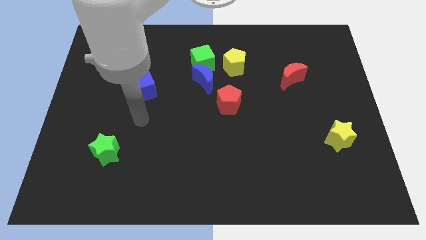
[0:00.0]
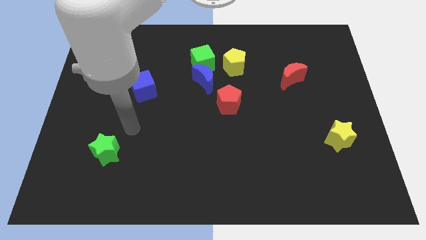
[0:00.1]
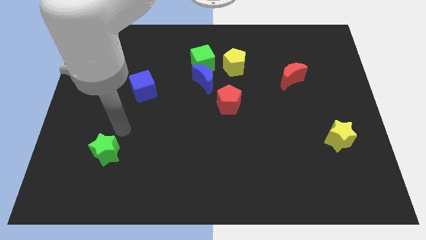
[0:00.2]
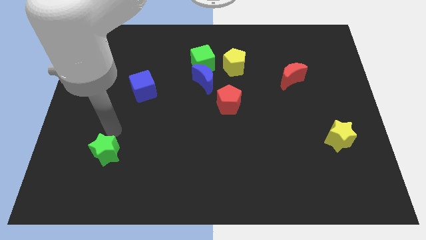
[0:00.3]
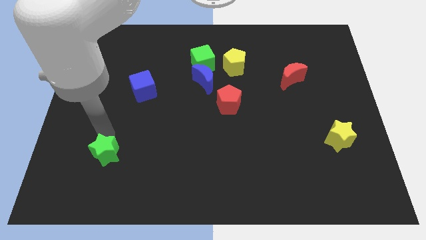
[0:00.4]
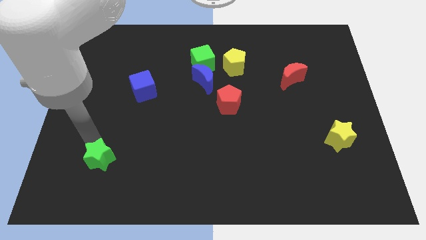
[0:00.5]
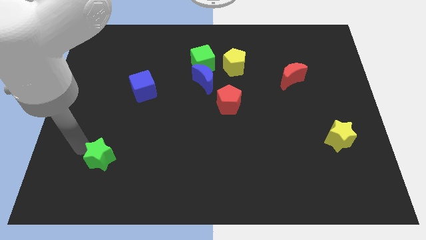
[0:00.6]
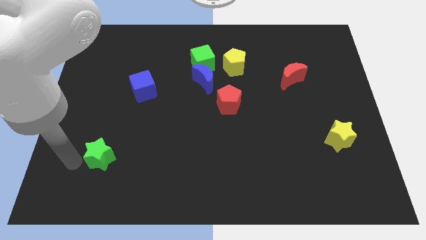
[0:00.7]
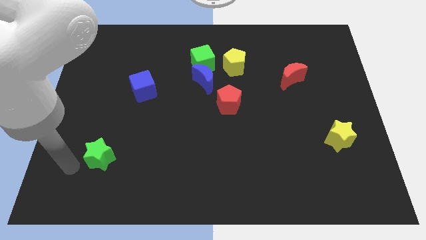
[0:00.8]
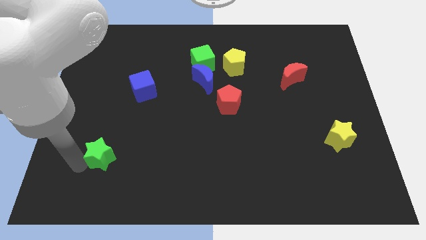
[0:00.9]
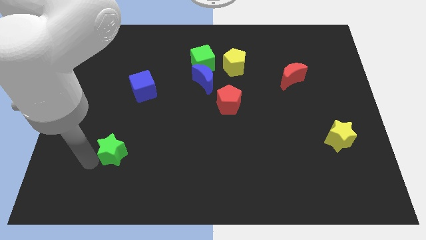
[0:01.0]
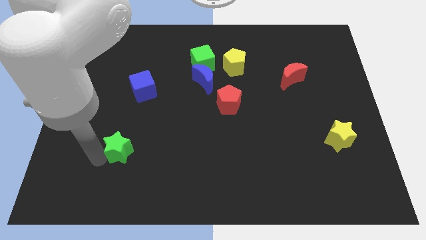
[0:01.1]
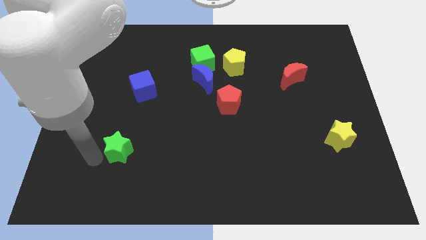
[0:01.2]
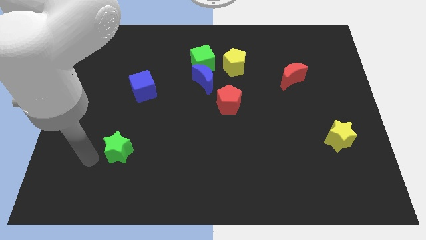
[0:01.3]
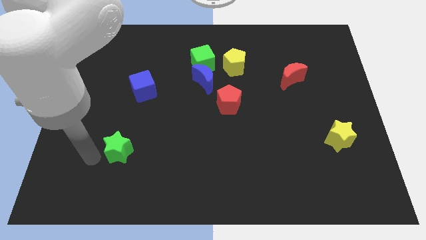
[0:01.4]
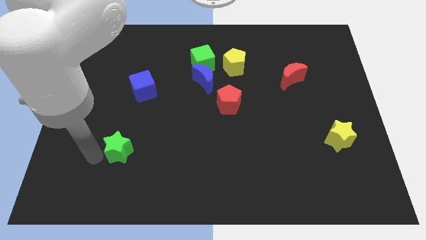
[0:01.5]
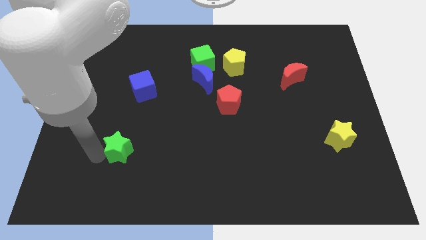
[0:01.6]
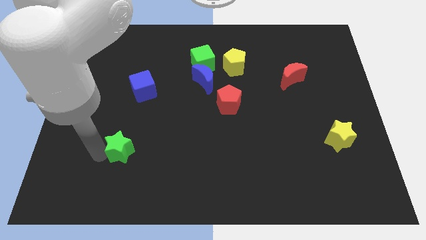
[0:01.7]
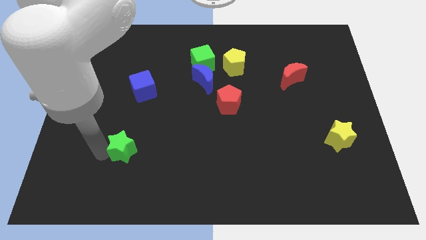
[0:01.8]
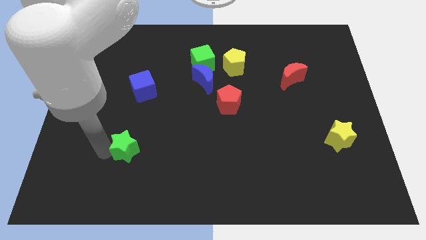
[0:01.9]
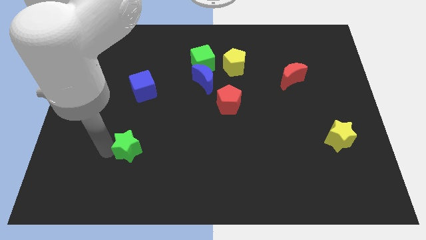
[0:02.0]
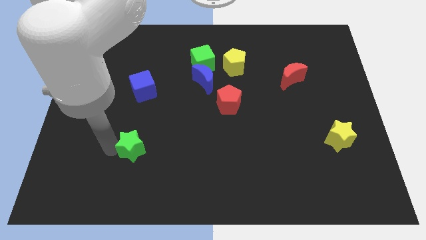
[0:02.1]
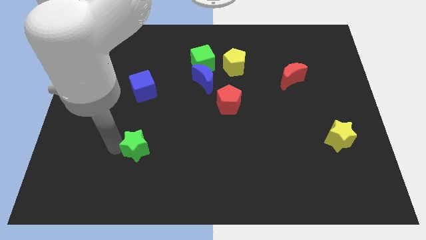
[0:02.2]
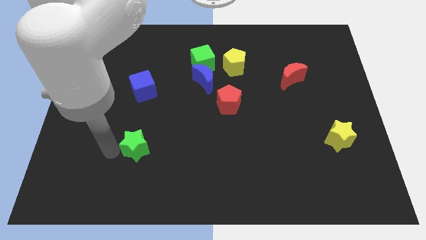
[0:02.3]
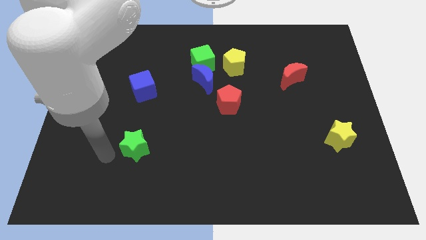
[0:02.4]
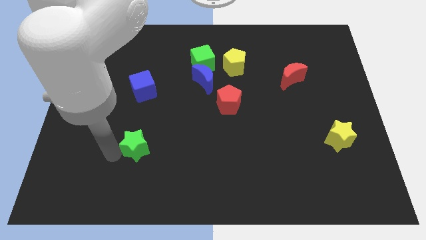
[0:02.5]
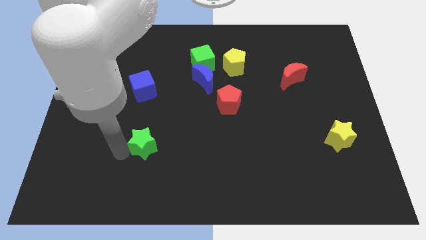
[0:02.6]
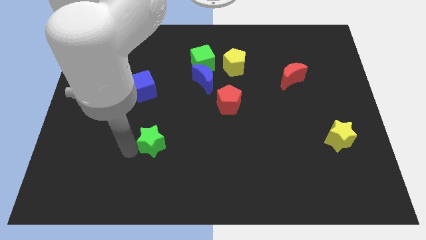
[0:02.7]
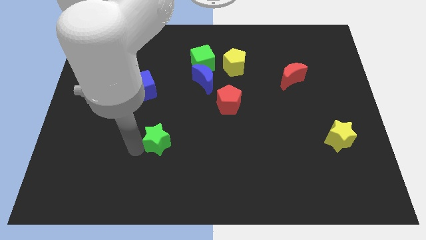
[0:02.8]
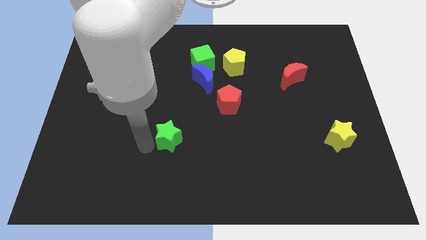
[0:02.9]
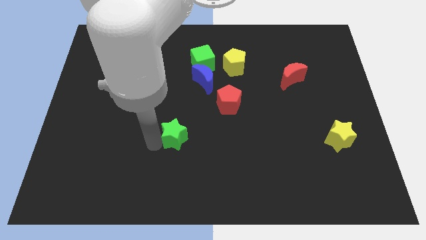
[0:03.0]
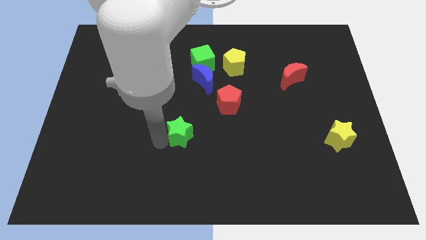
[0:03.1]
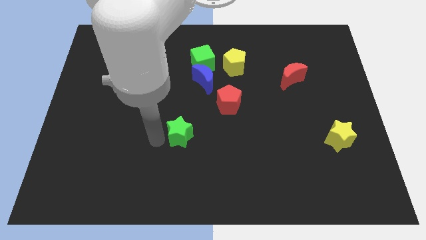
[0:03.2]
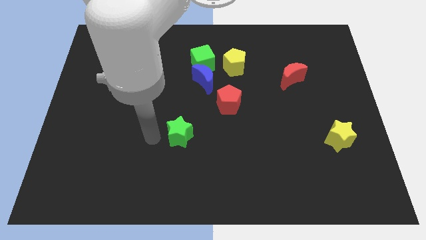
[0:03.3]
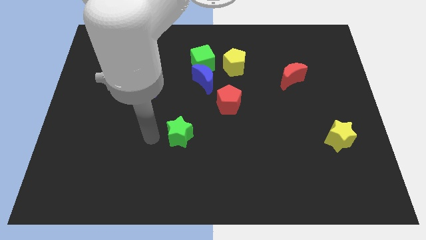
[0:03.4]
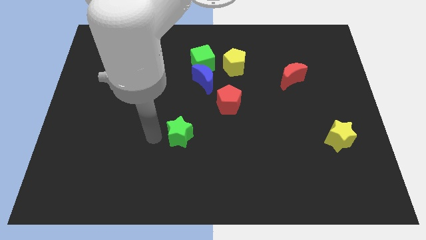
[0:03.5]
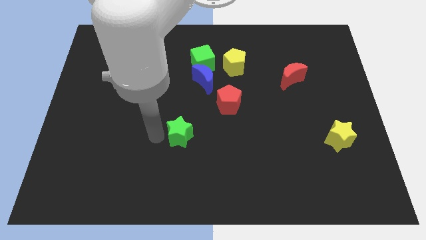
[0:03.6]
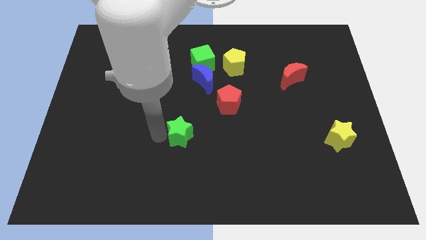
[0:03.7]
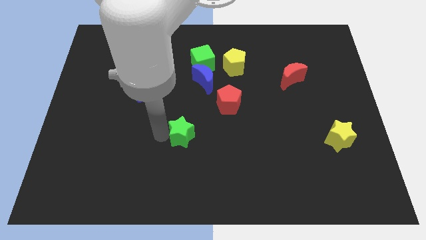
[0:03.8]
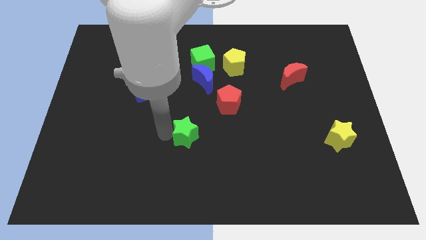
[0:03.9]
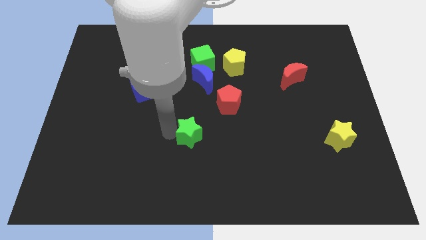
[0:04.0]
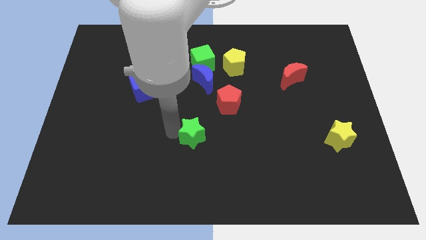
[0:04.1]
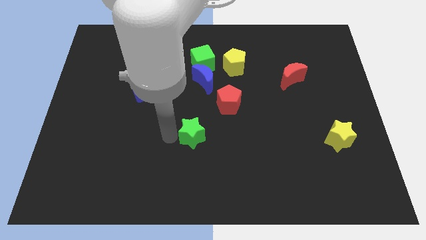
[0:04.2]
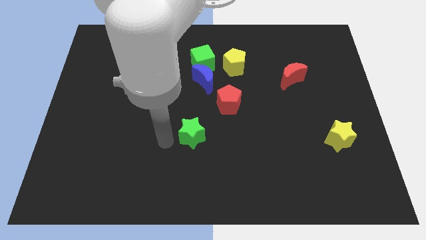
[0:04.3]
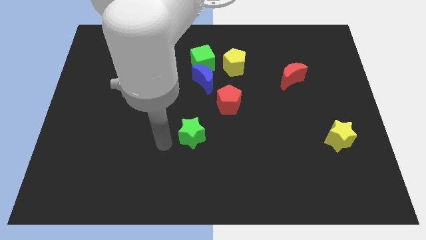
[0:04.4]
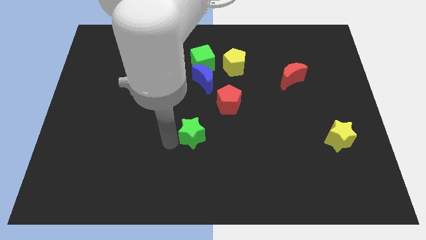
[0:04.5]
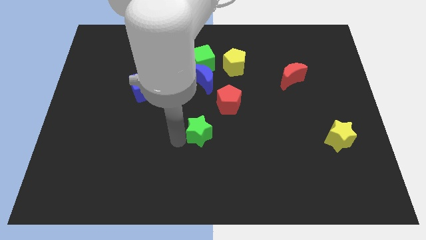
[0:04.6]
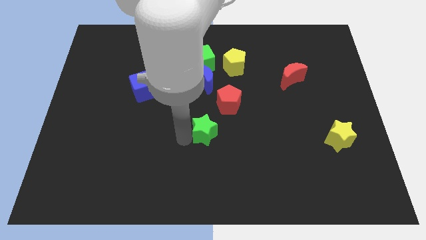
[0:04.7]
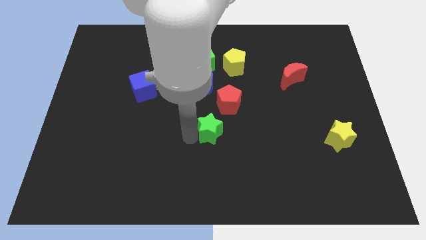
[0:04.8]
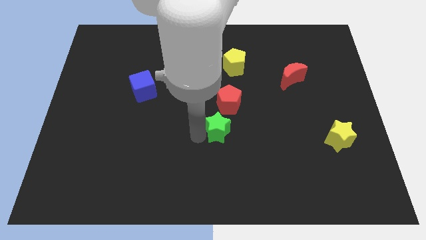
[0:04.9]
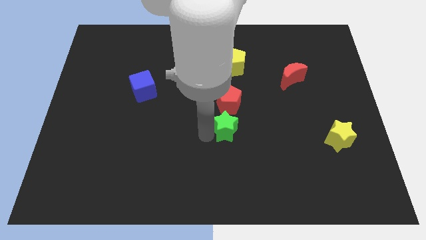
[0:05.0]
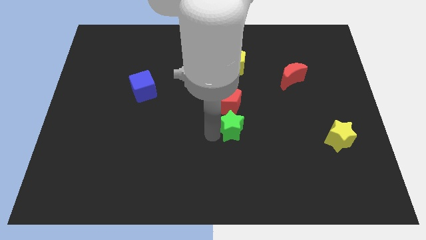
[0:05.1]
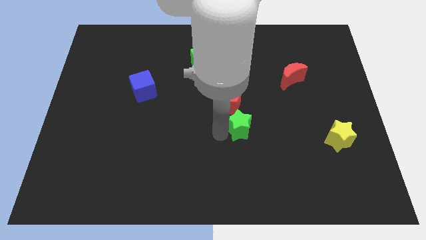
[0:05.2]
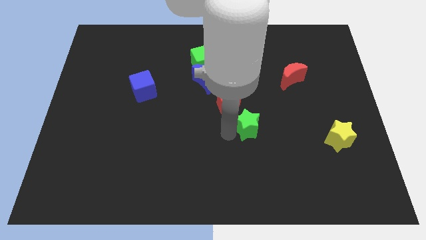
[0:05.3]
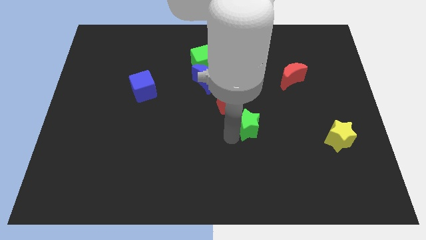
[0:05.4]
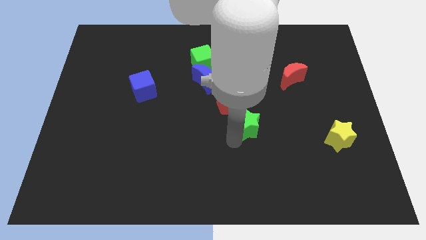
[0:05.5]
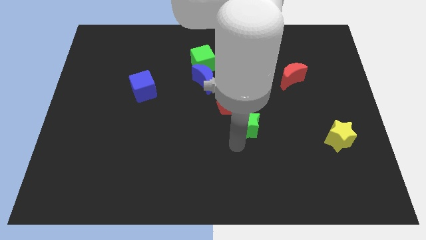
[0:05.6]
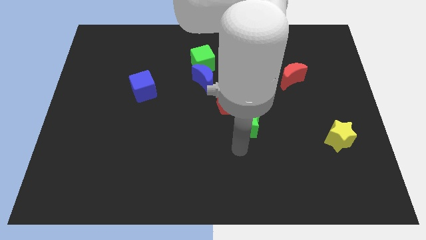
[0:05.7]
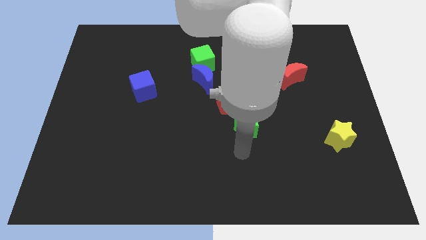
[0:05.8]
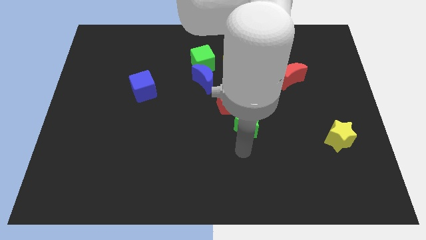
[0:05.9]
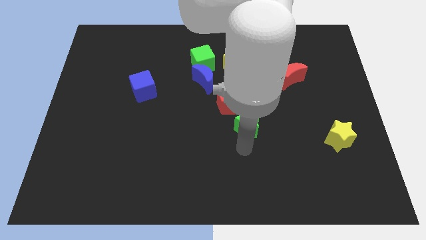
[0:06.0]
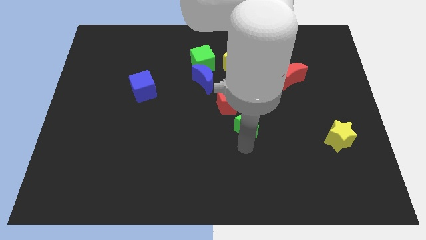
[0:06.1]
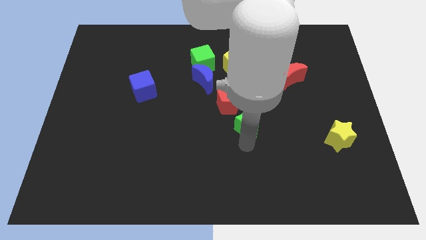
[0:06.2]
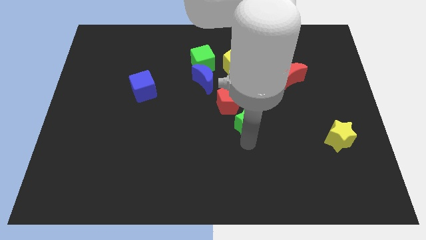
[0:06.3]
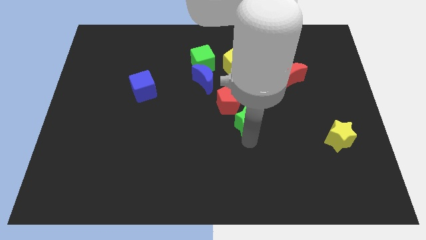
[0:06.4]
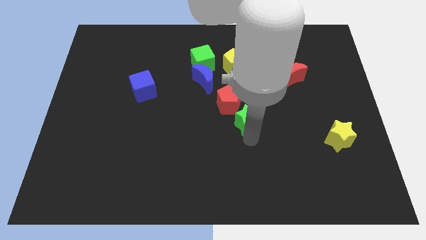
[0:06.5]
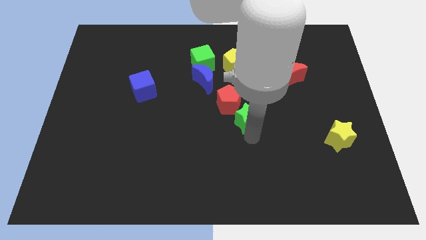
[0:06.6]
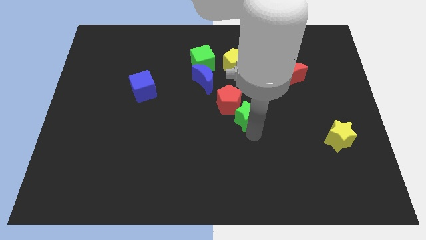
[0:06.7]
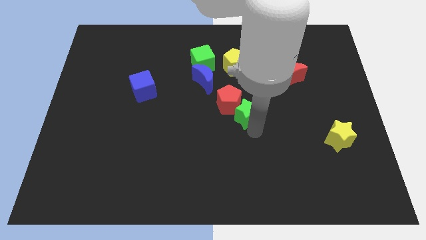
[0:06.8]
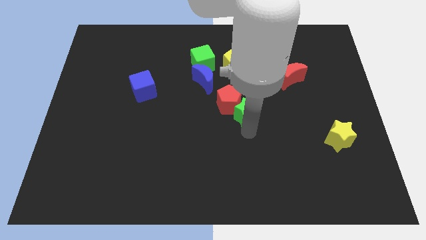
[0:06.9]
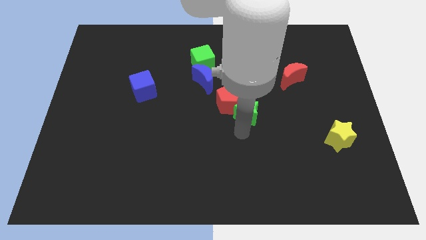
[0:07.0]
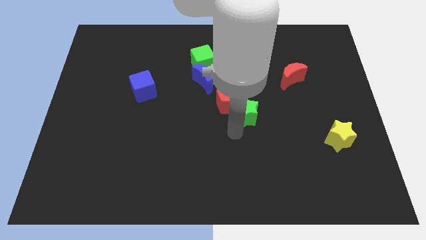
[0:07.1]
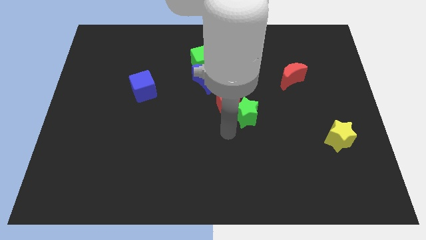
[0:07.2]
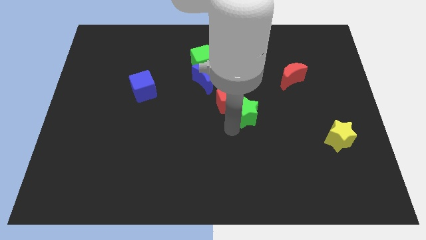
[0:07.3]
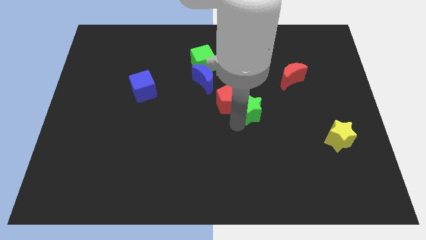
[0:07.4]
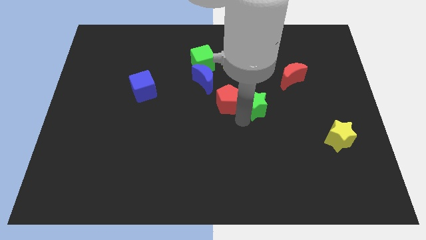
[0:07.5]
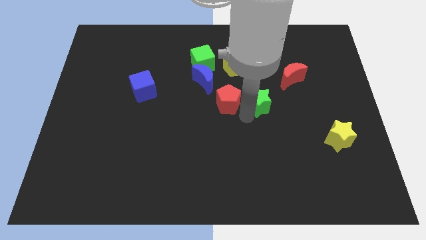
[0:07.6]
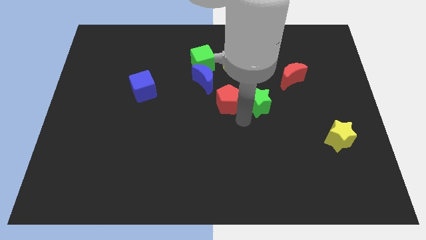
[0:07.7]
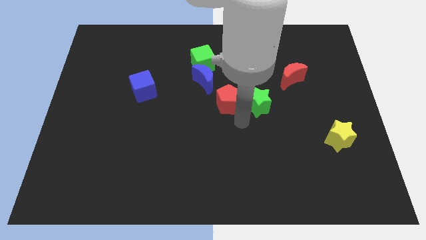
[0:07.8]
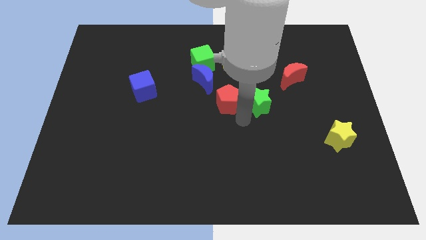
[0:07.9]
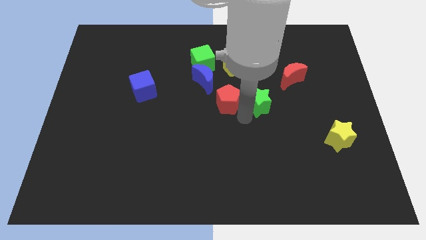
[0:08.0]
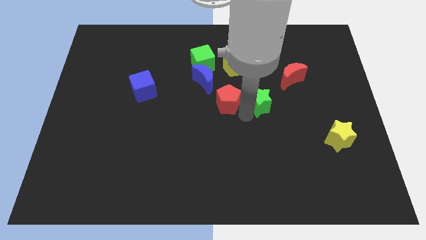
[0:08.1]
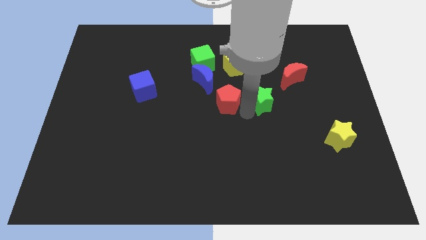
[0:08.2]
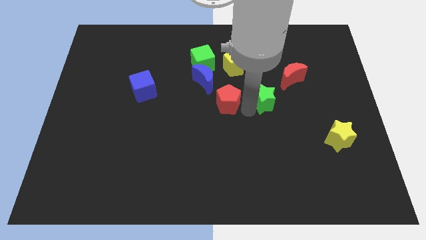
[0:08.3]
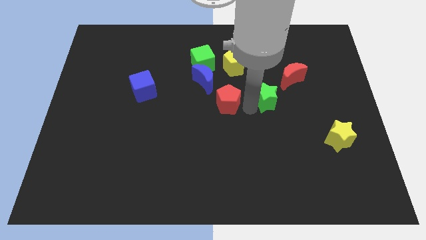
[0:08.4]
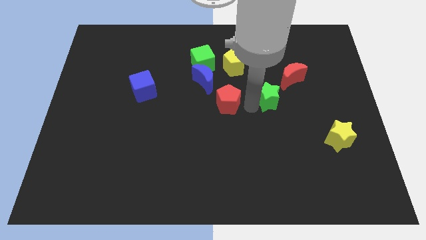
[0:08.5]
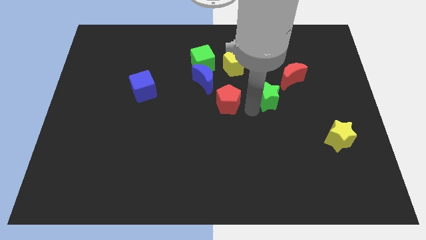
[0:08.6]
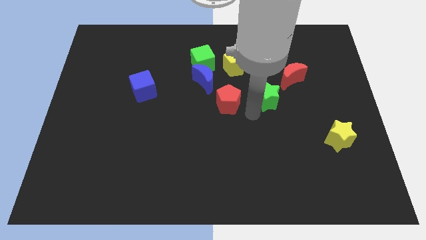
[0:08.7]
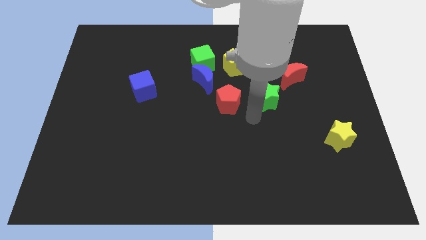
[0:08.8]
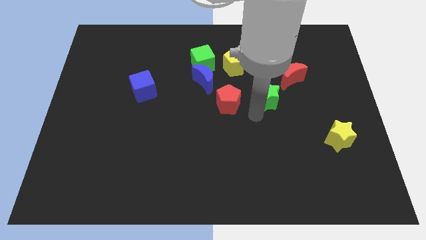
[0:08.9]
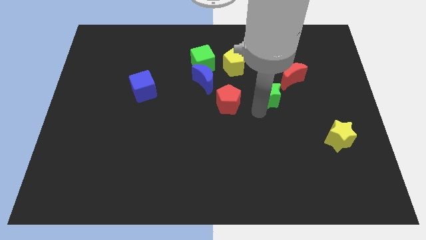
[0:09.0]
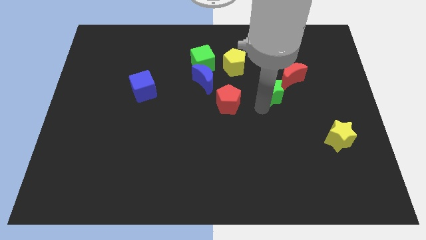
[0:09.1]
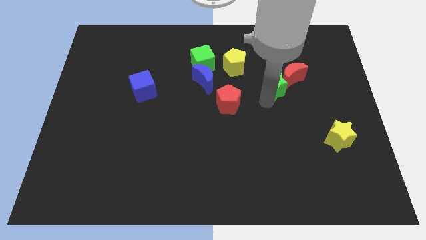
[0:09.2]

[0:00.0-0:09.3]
push the green star close to the red moon
